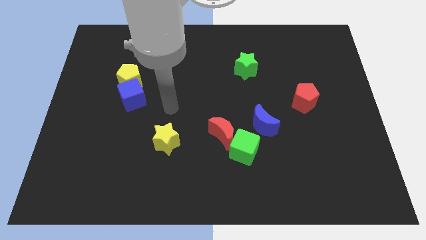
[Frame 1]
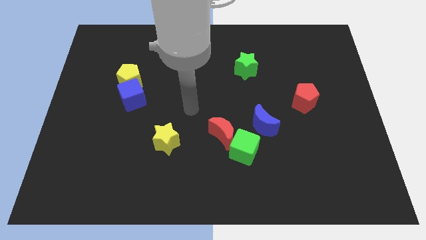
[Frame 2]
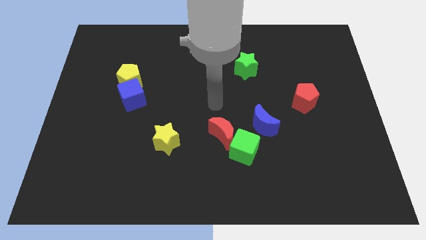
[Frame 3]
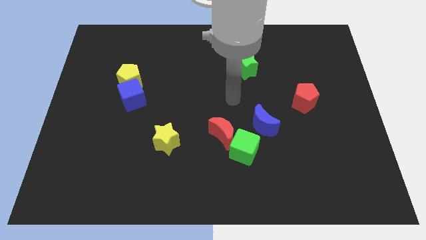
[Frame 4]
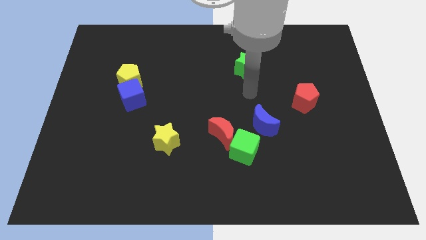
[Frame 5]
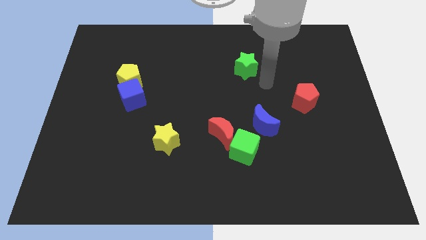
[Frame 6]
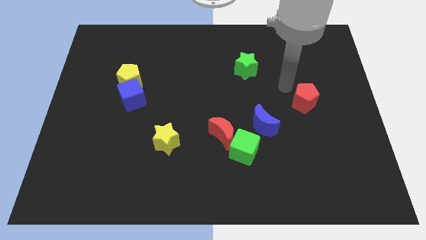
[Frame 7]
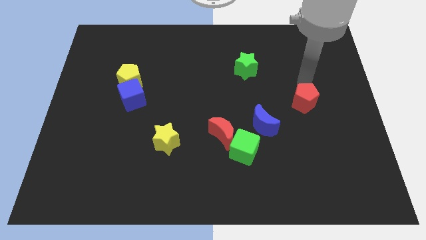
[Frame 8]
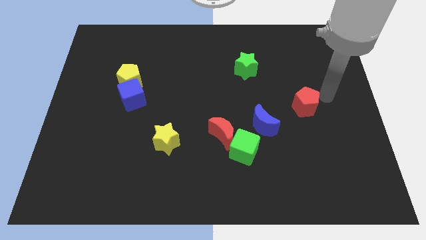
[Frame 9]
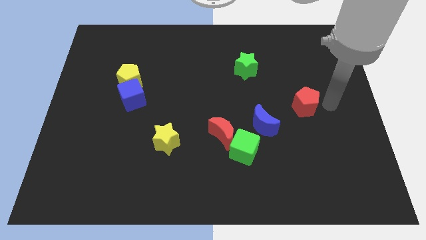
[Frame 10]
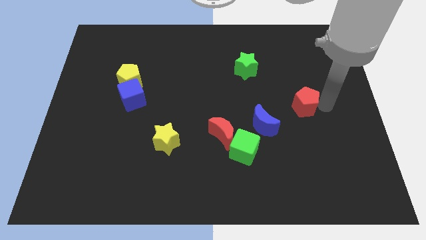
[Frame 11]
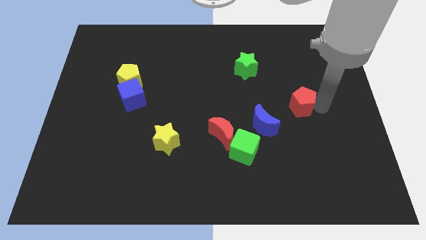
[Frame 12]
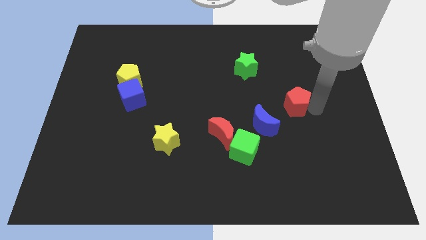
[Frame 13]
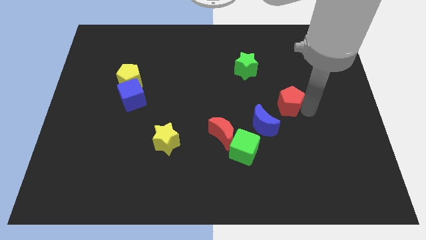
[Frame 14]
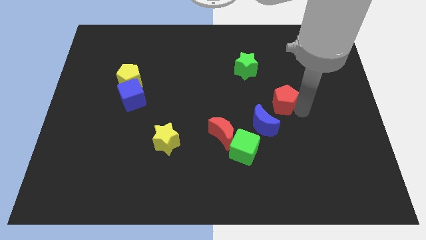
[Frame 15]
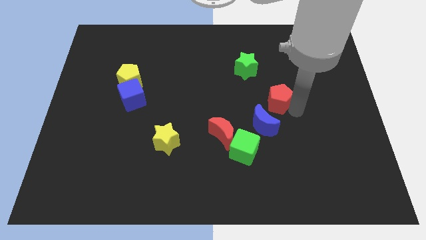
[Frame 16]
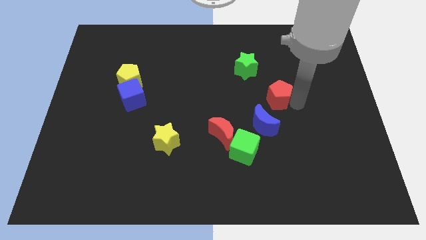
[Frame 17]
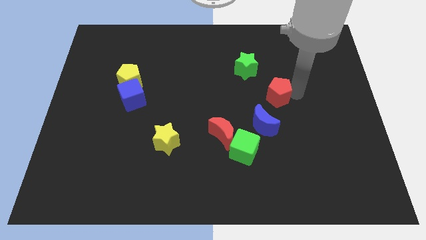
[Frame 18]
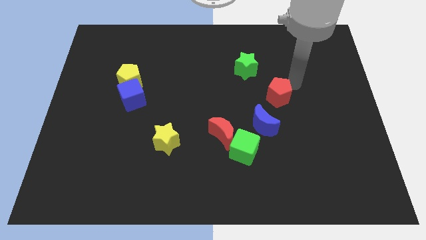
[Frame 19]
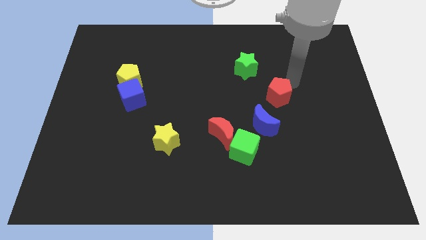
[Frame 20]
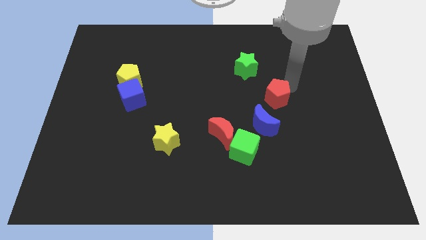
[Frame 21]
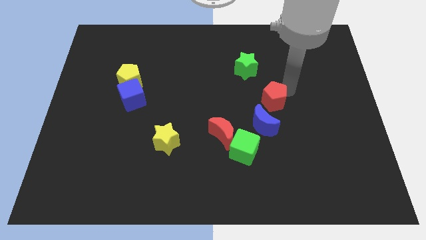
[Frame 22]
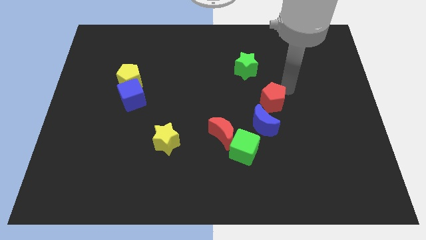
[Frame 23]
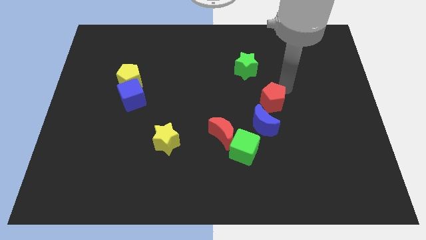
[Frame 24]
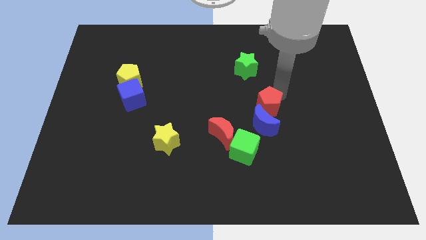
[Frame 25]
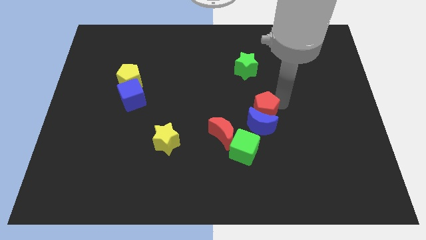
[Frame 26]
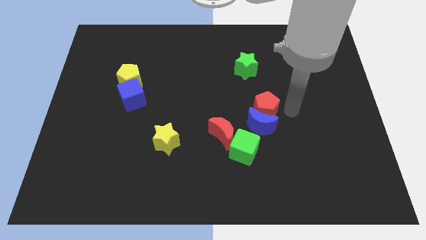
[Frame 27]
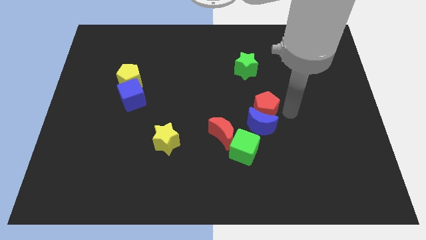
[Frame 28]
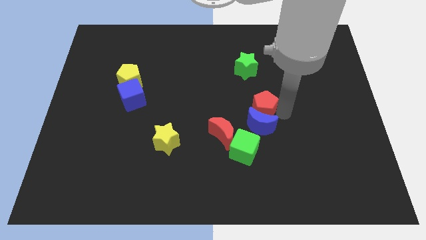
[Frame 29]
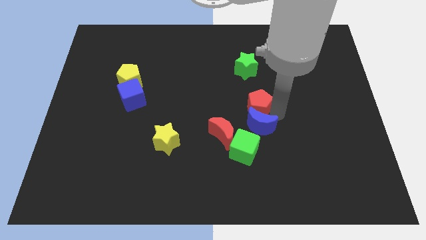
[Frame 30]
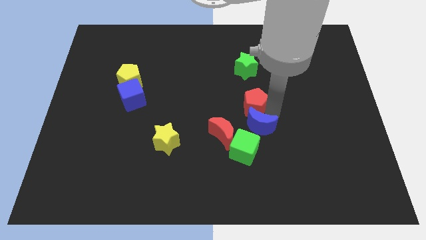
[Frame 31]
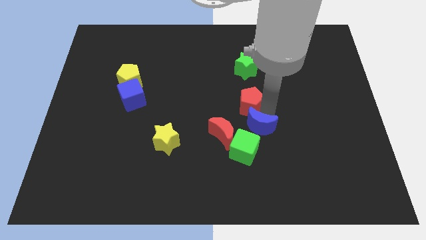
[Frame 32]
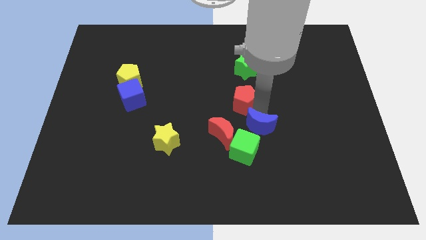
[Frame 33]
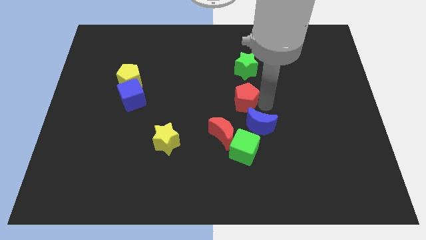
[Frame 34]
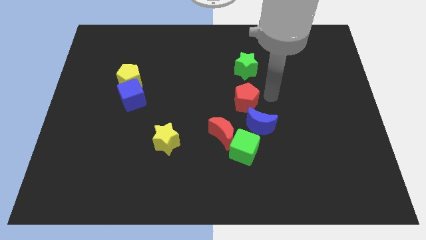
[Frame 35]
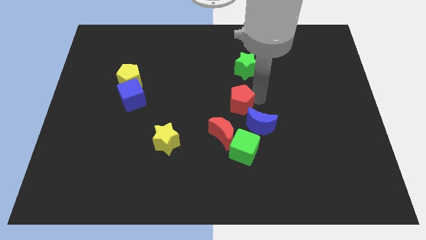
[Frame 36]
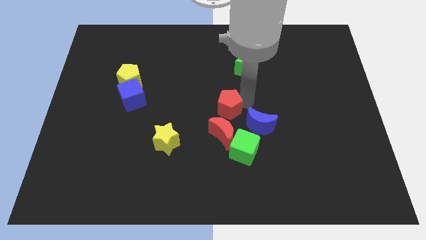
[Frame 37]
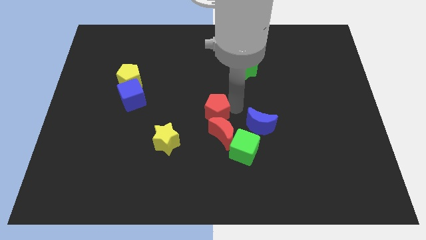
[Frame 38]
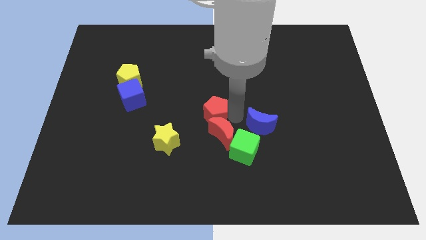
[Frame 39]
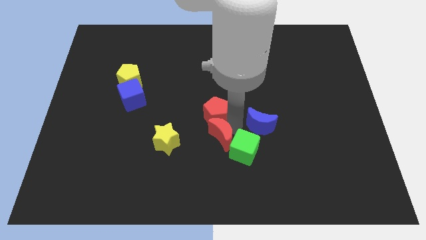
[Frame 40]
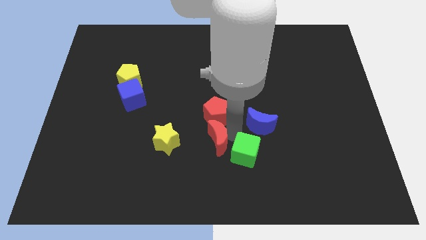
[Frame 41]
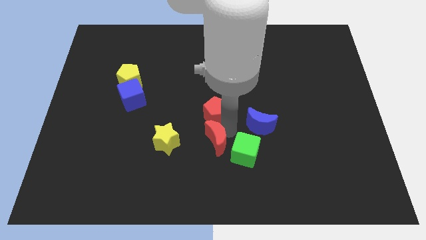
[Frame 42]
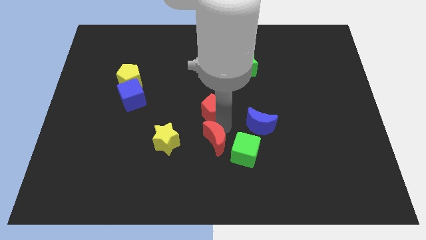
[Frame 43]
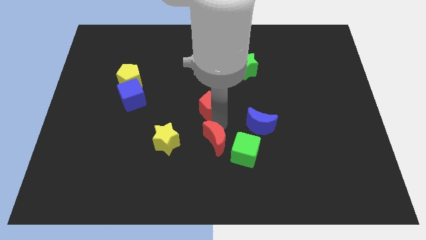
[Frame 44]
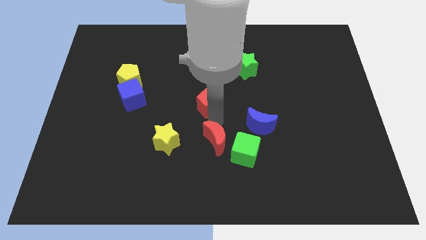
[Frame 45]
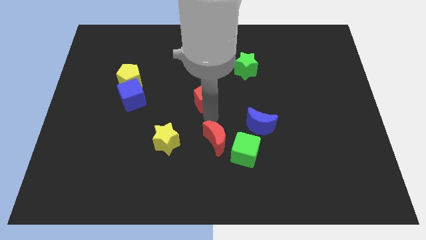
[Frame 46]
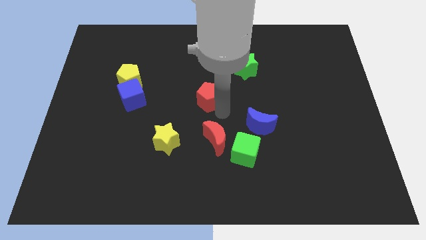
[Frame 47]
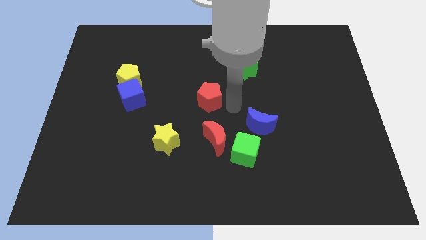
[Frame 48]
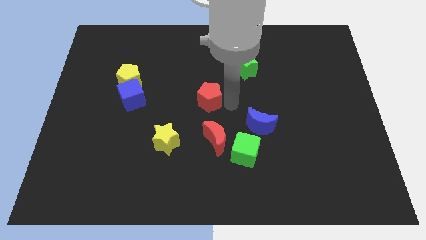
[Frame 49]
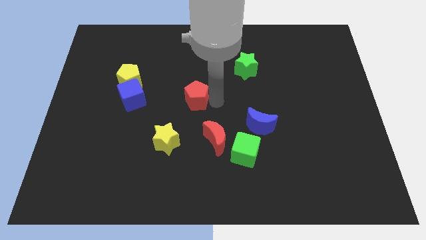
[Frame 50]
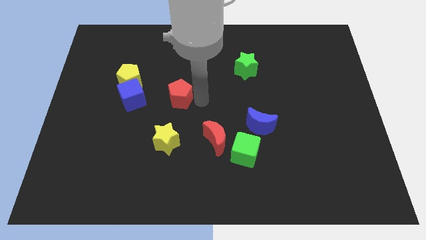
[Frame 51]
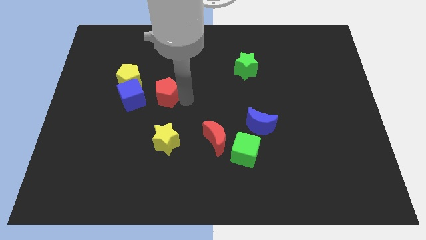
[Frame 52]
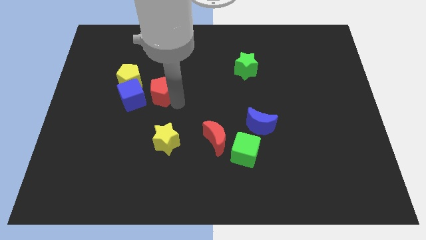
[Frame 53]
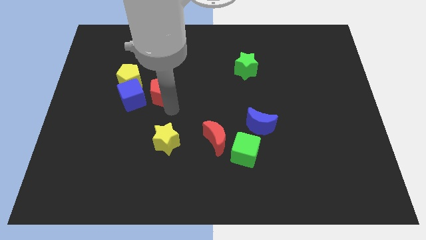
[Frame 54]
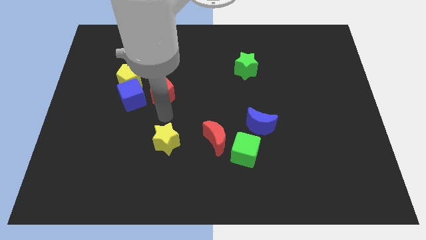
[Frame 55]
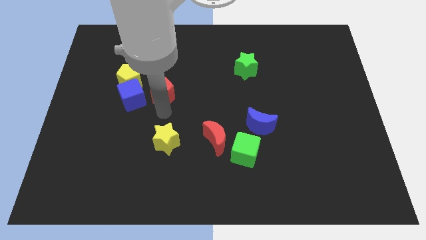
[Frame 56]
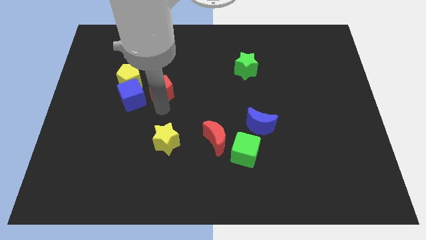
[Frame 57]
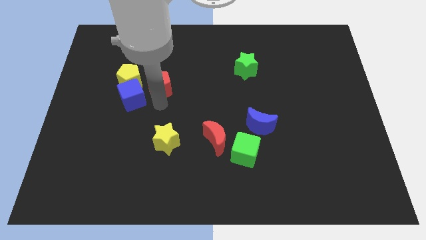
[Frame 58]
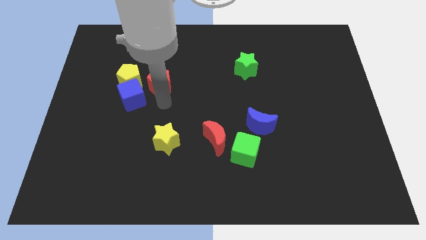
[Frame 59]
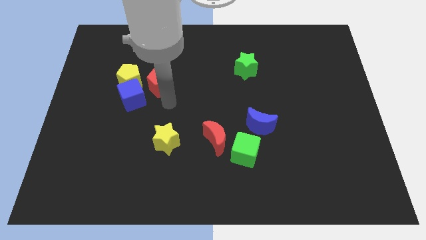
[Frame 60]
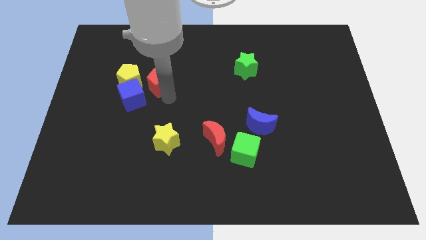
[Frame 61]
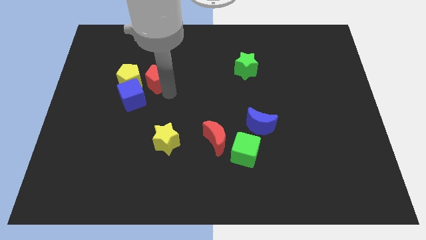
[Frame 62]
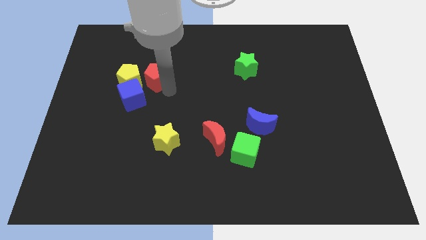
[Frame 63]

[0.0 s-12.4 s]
move the red pentagon to the top right of the yellow pentagon
